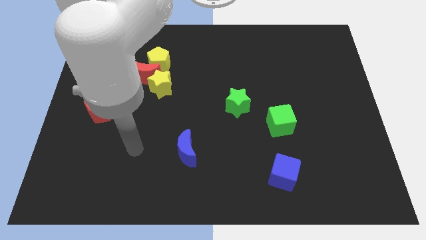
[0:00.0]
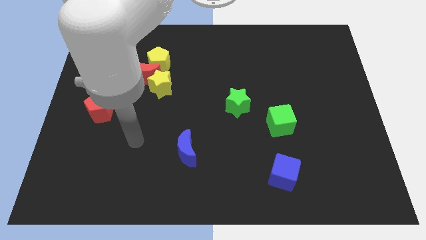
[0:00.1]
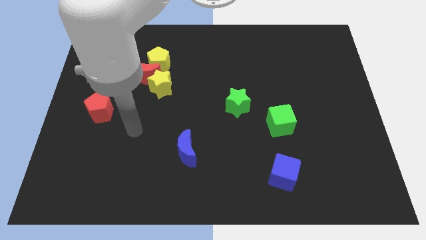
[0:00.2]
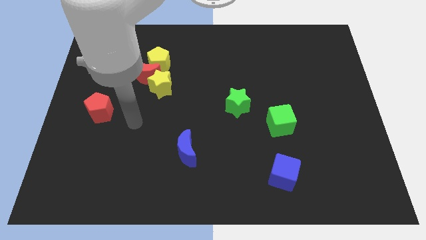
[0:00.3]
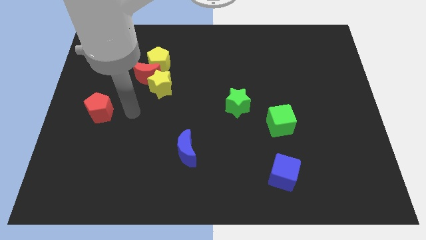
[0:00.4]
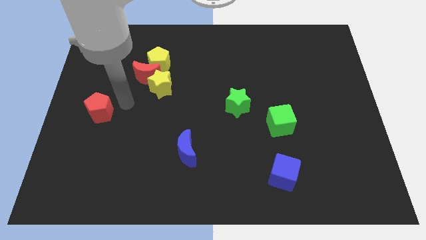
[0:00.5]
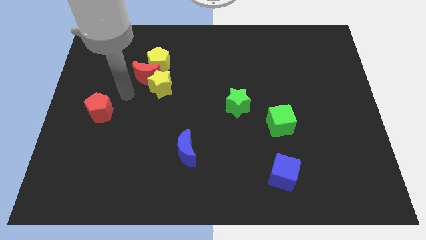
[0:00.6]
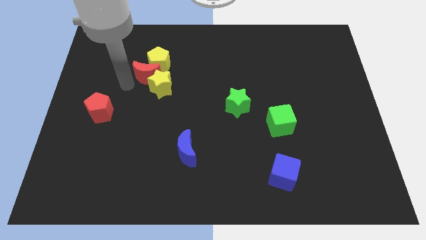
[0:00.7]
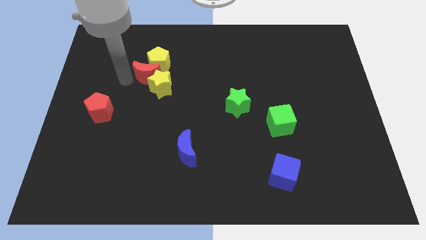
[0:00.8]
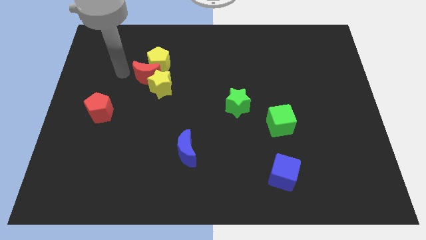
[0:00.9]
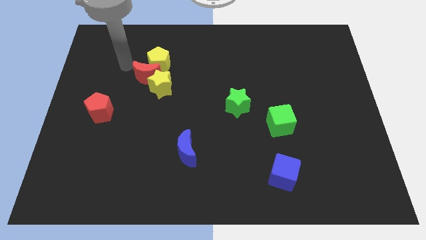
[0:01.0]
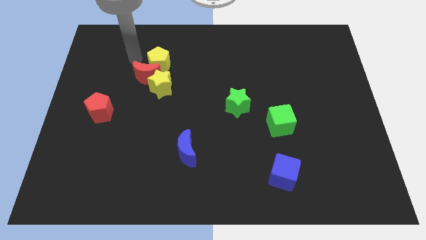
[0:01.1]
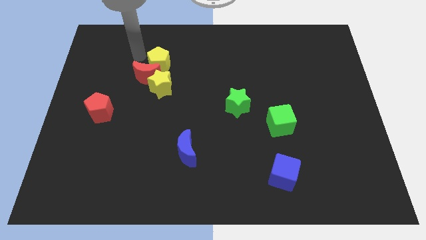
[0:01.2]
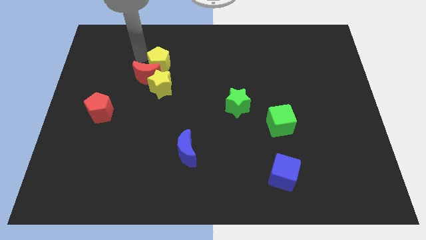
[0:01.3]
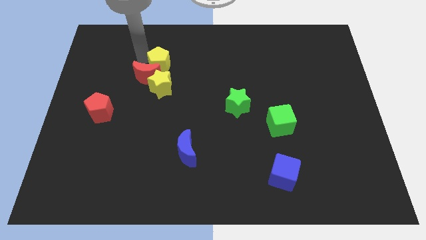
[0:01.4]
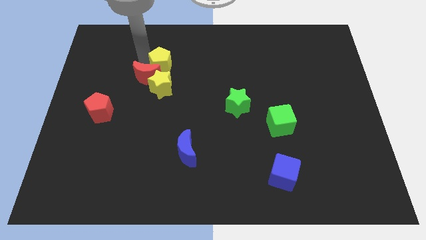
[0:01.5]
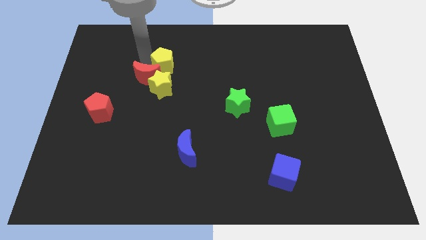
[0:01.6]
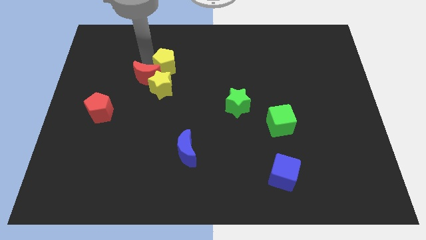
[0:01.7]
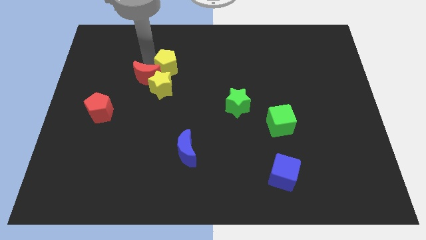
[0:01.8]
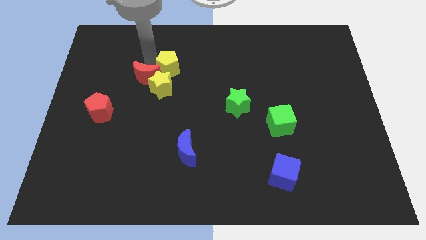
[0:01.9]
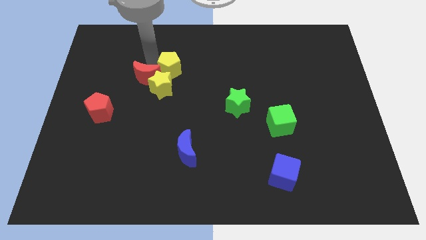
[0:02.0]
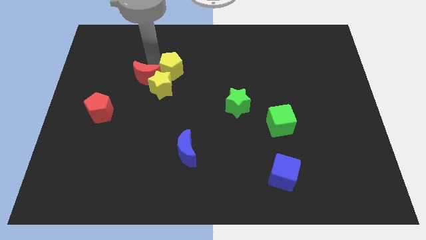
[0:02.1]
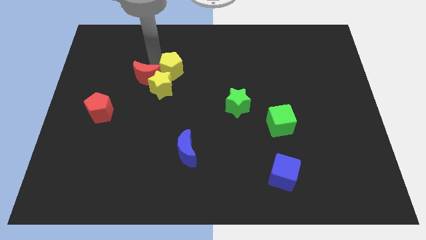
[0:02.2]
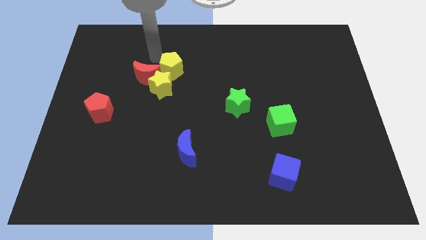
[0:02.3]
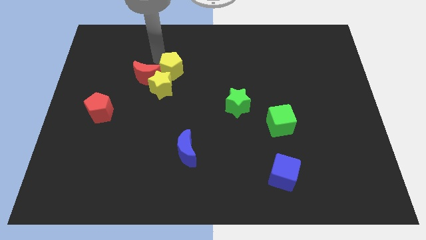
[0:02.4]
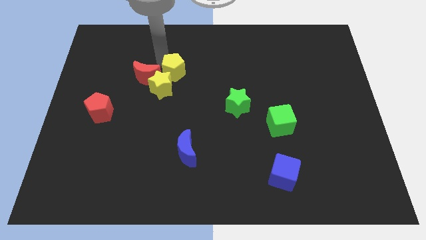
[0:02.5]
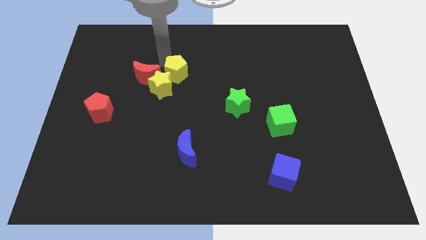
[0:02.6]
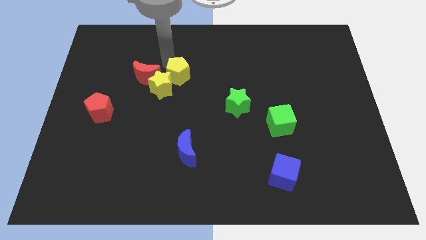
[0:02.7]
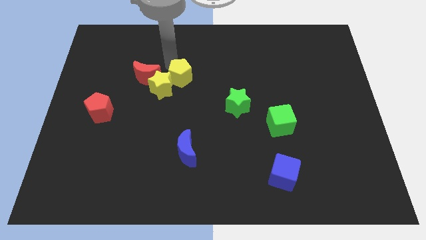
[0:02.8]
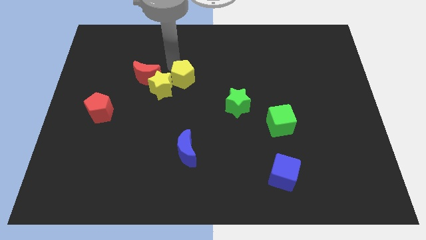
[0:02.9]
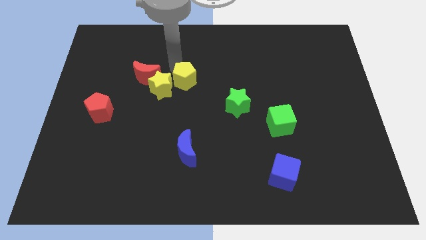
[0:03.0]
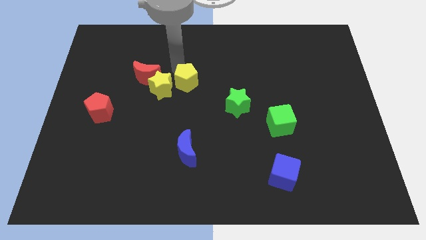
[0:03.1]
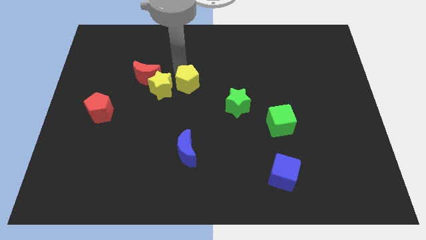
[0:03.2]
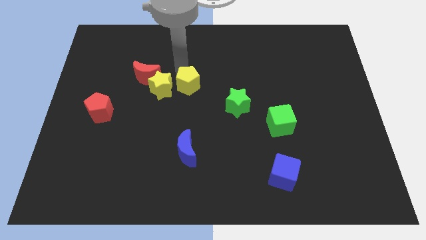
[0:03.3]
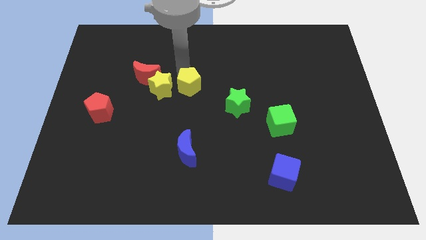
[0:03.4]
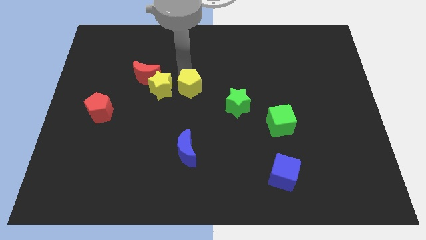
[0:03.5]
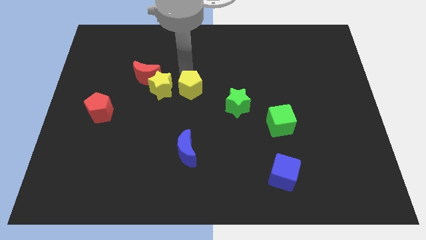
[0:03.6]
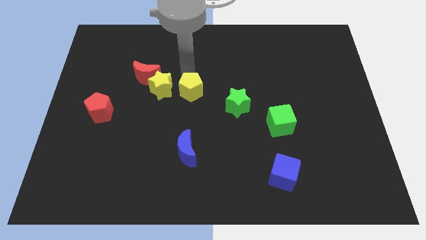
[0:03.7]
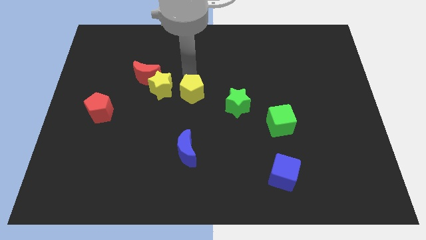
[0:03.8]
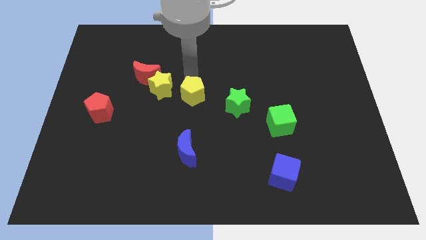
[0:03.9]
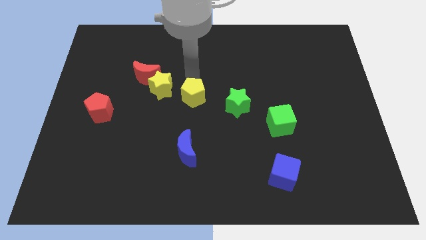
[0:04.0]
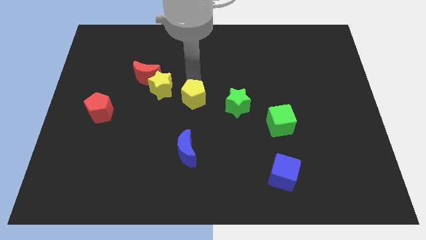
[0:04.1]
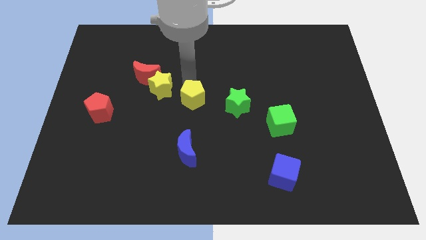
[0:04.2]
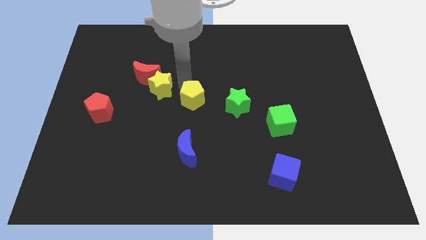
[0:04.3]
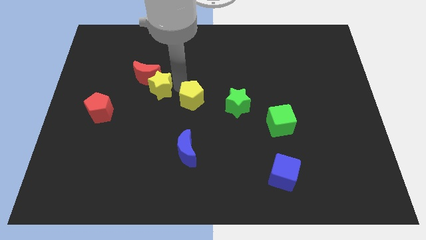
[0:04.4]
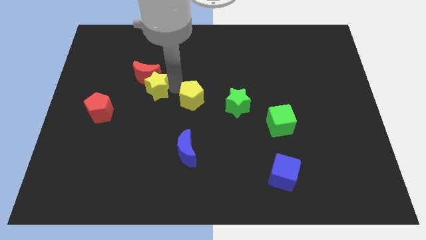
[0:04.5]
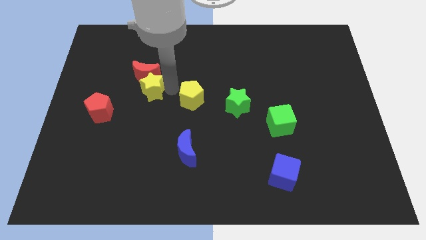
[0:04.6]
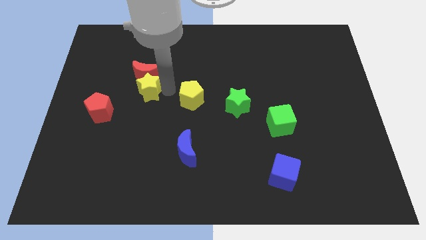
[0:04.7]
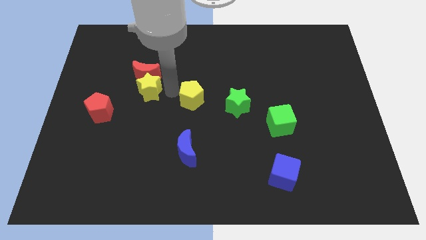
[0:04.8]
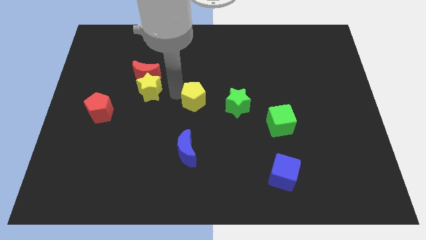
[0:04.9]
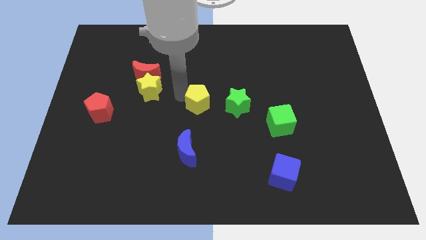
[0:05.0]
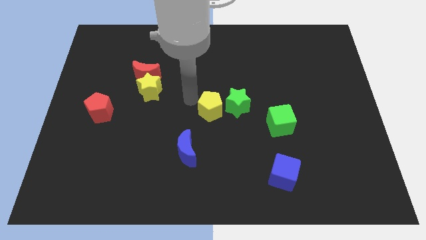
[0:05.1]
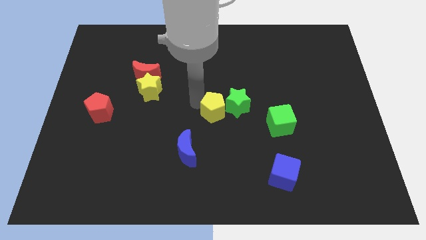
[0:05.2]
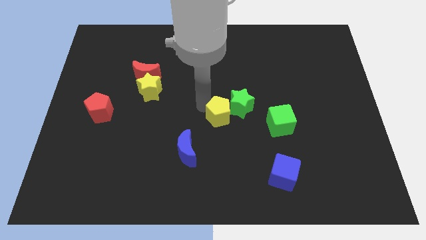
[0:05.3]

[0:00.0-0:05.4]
slide the yellow pentagon to the left of the green cube

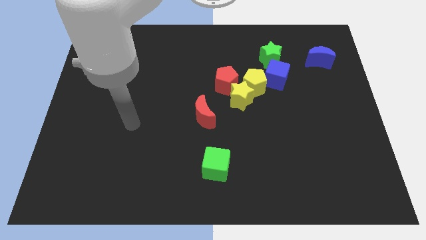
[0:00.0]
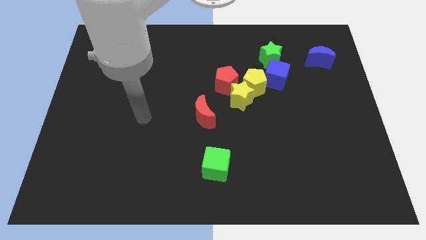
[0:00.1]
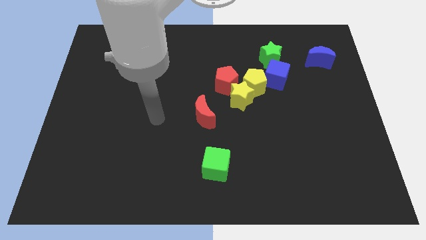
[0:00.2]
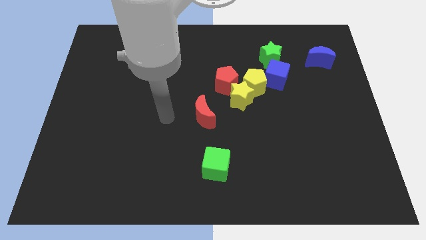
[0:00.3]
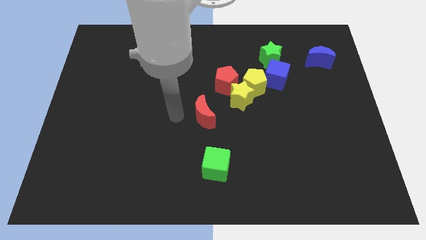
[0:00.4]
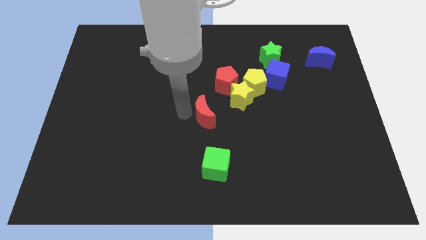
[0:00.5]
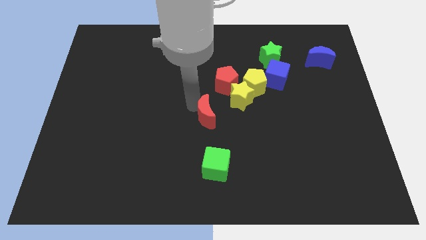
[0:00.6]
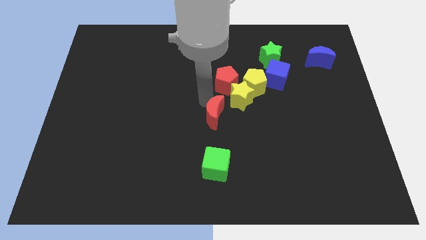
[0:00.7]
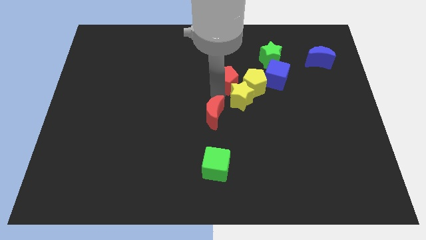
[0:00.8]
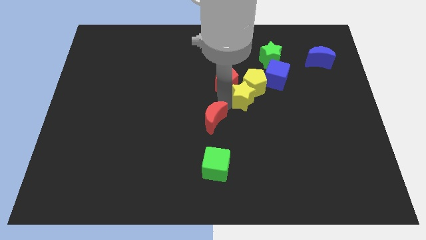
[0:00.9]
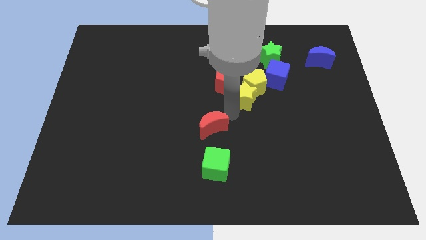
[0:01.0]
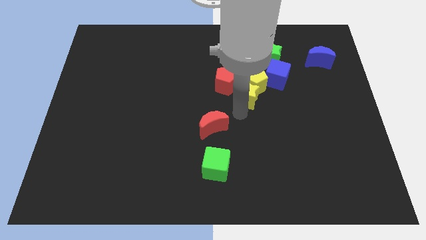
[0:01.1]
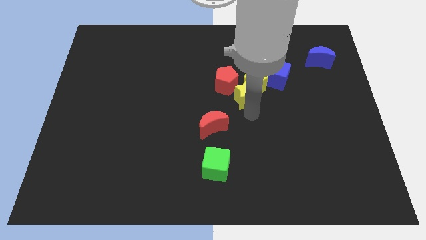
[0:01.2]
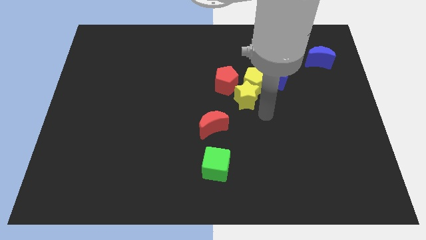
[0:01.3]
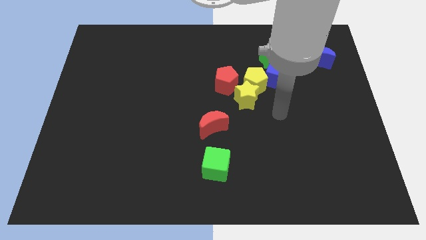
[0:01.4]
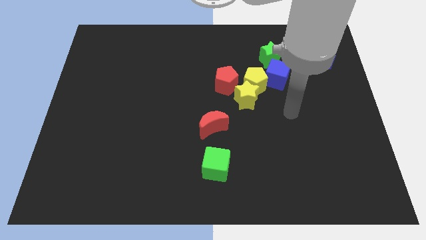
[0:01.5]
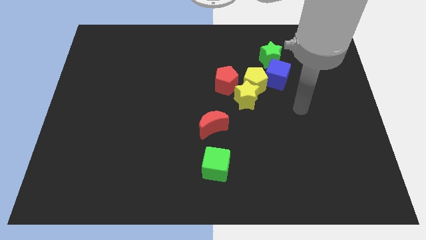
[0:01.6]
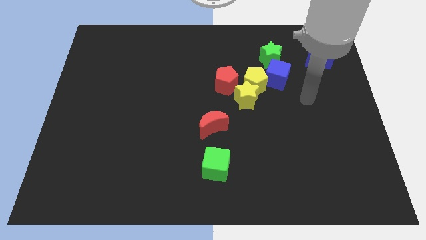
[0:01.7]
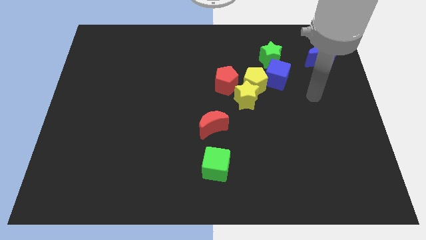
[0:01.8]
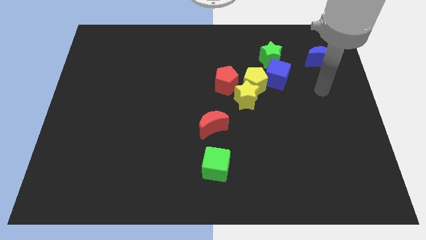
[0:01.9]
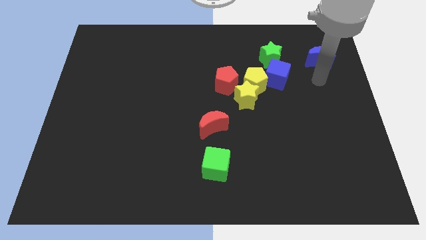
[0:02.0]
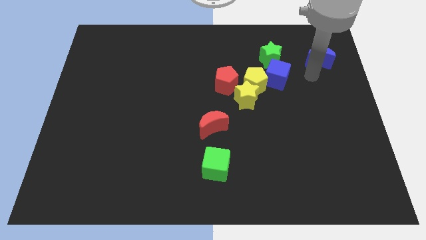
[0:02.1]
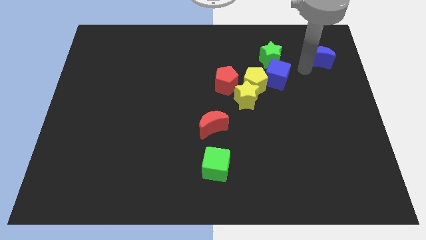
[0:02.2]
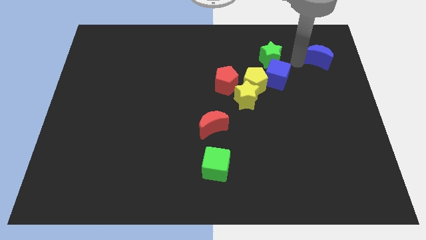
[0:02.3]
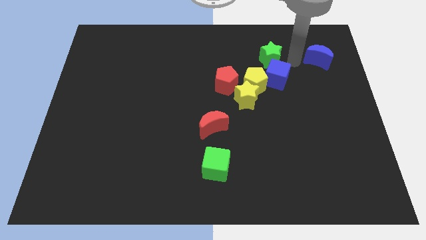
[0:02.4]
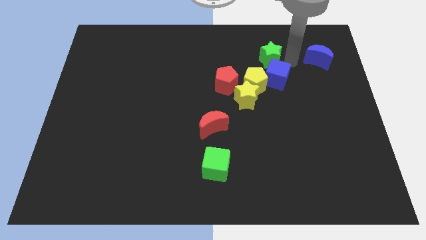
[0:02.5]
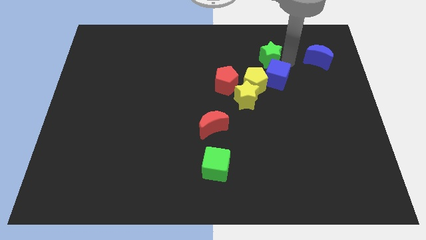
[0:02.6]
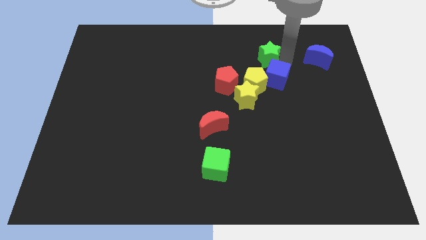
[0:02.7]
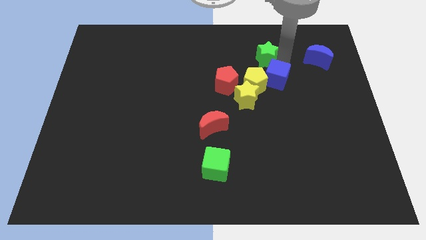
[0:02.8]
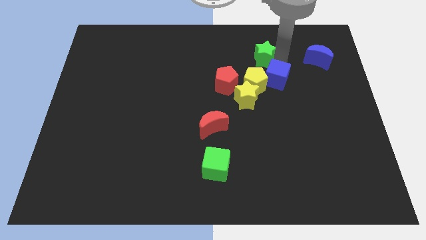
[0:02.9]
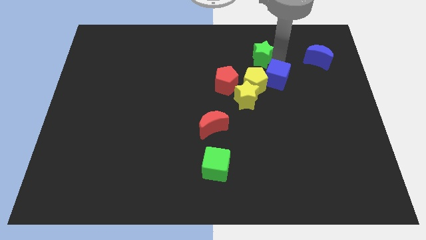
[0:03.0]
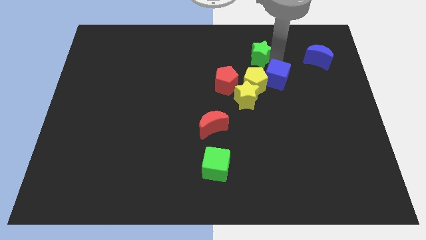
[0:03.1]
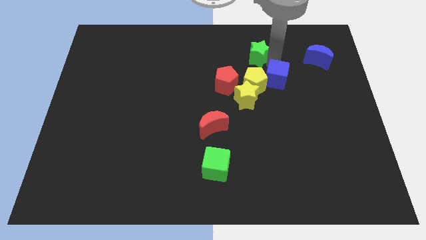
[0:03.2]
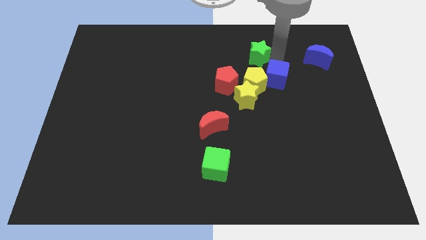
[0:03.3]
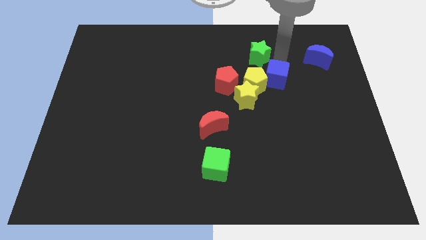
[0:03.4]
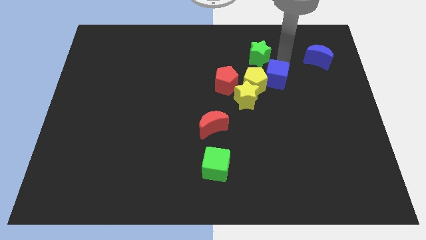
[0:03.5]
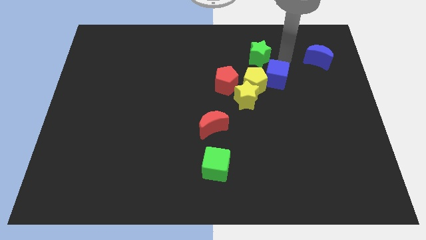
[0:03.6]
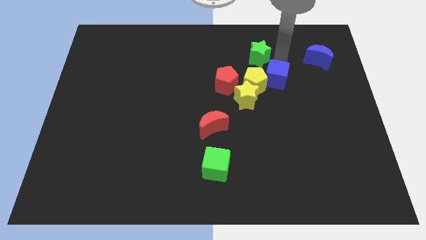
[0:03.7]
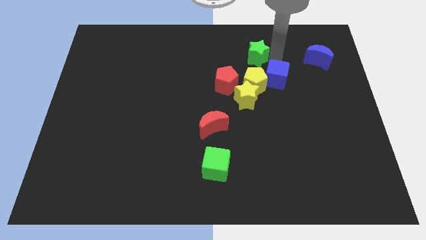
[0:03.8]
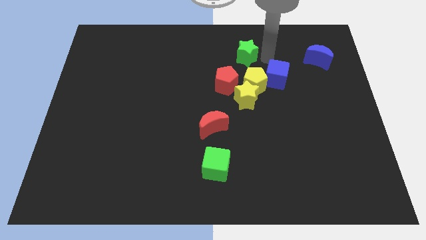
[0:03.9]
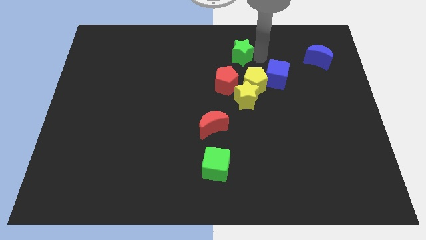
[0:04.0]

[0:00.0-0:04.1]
slide the green star to the top of the red pentagon
